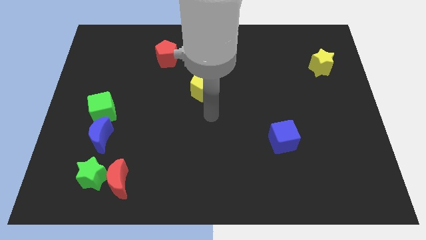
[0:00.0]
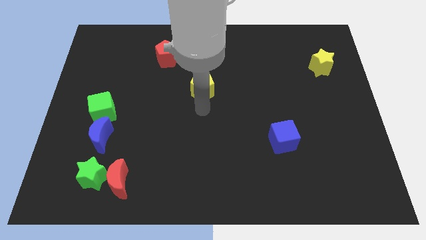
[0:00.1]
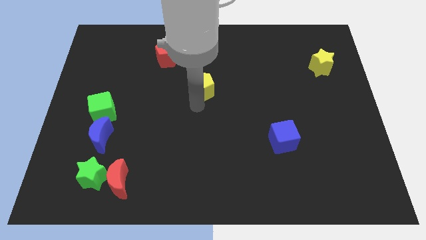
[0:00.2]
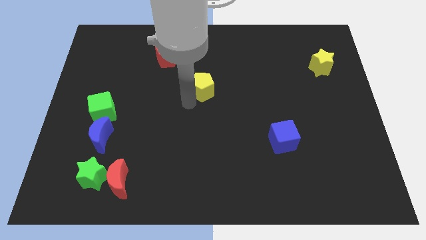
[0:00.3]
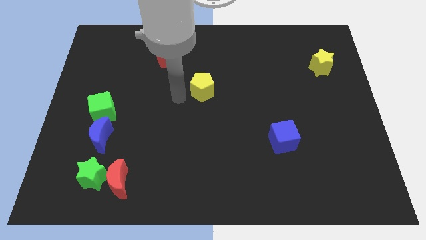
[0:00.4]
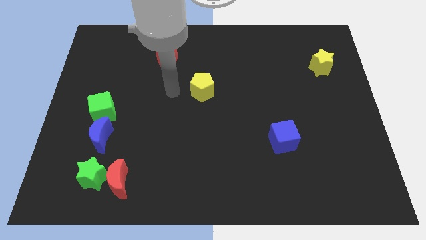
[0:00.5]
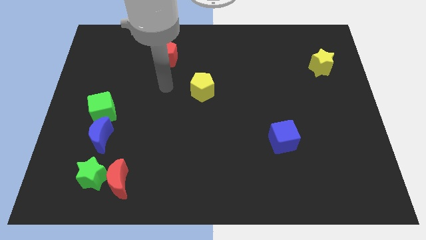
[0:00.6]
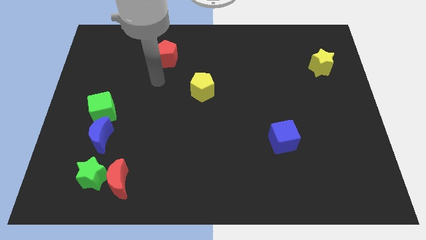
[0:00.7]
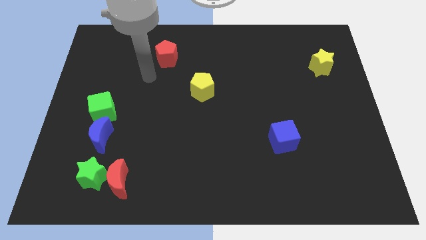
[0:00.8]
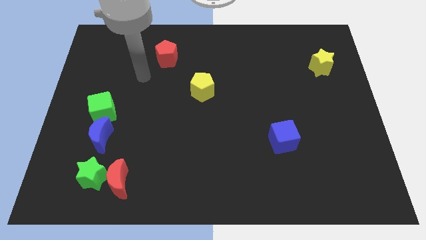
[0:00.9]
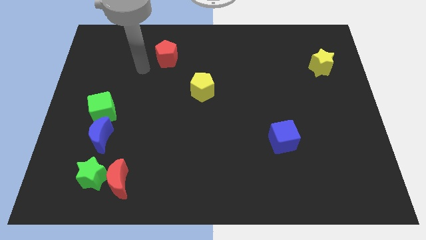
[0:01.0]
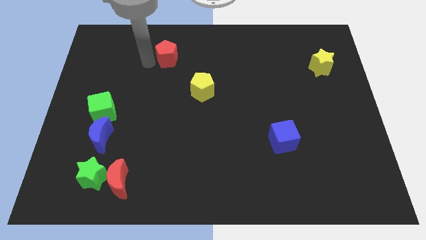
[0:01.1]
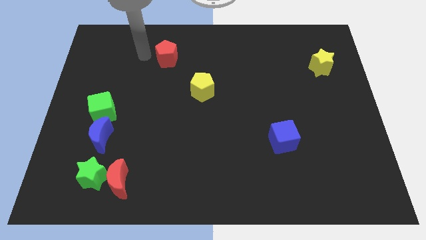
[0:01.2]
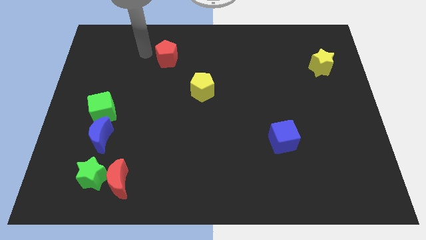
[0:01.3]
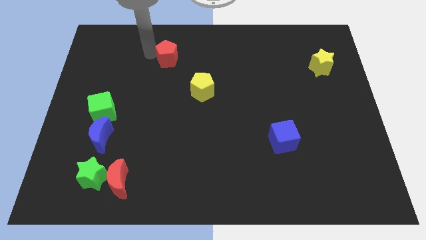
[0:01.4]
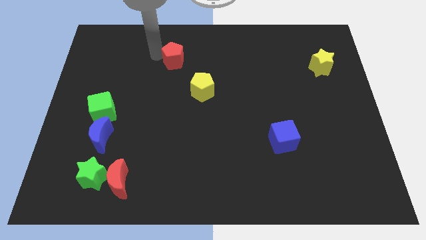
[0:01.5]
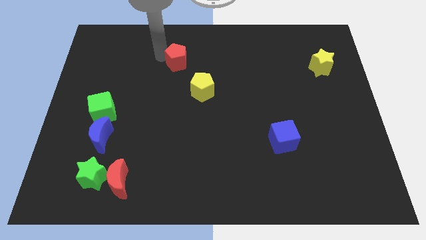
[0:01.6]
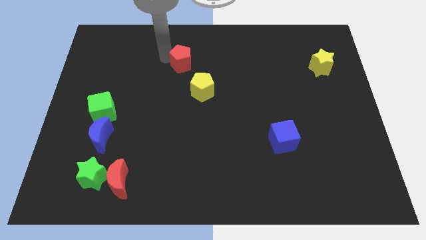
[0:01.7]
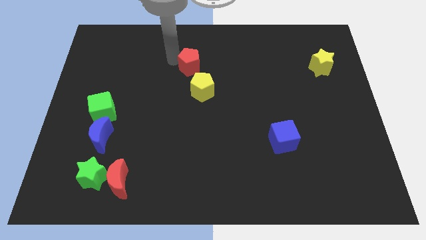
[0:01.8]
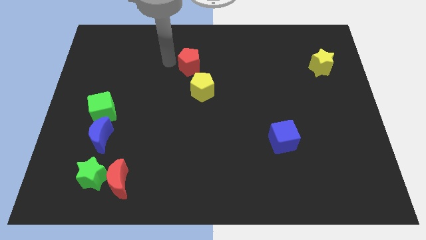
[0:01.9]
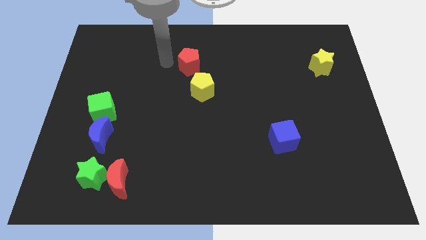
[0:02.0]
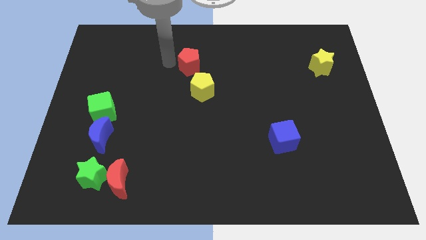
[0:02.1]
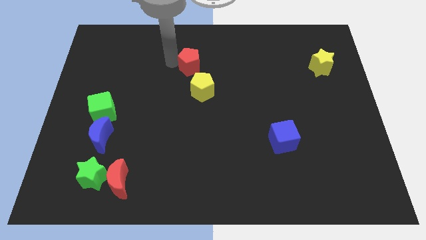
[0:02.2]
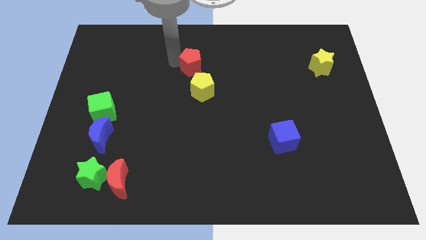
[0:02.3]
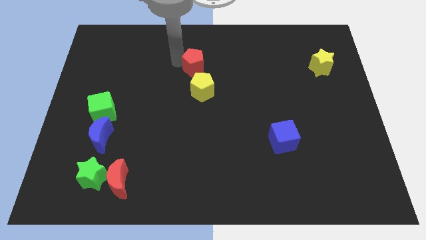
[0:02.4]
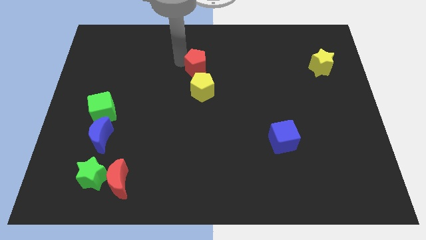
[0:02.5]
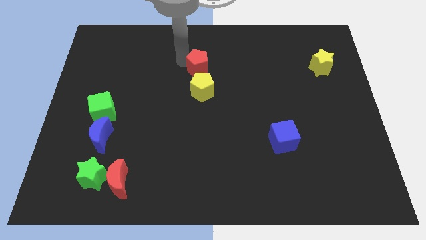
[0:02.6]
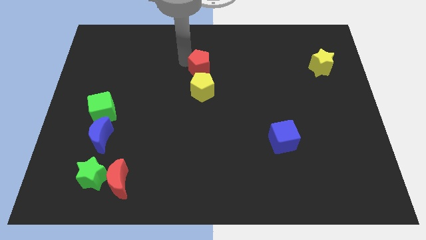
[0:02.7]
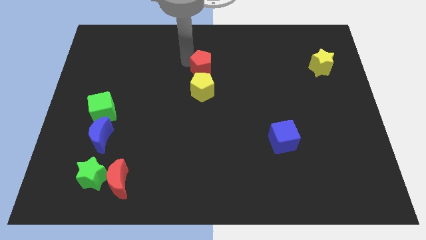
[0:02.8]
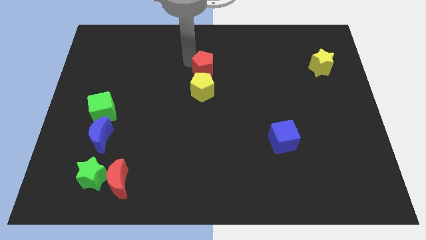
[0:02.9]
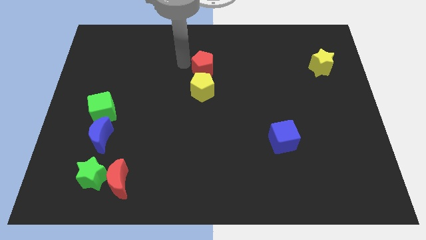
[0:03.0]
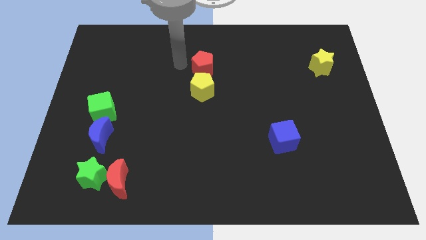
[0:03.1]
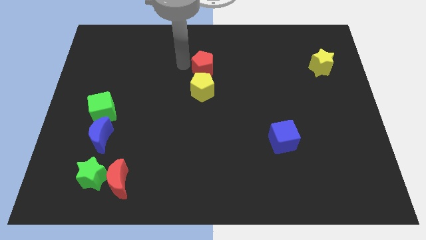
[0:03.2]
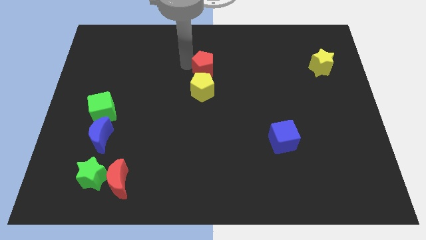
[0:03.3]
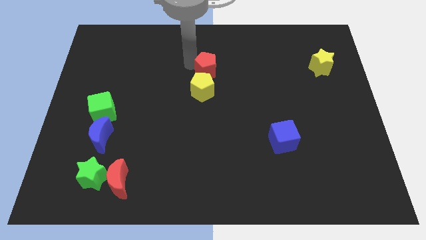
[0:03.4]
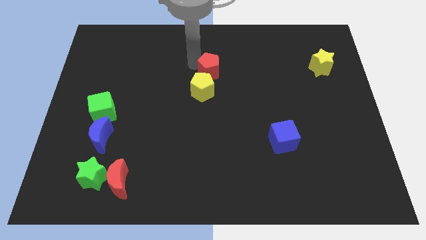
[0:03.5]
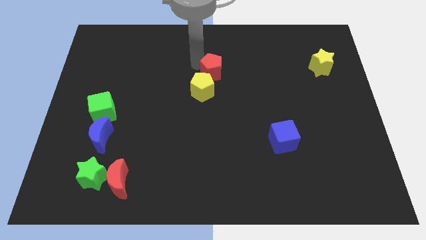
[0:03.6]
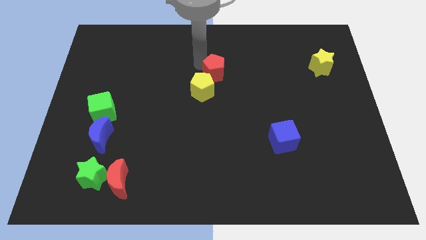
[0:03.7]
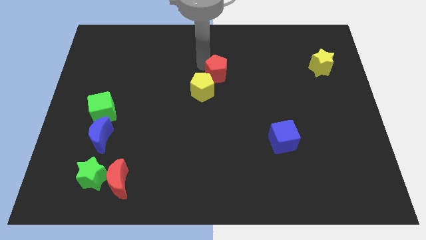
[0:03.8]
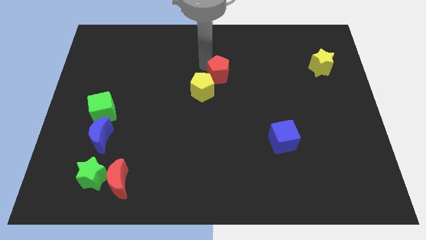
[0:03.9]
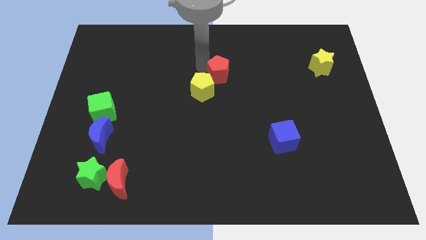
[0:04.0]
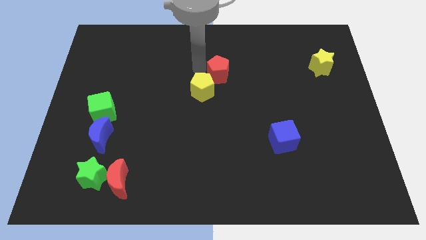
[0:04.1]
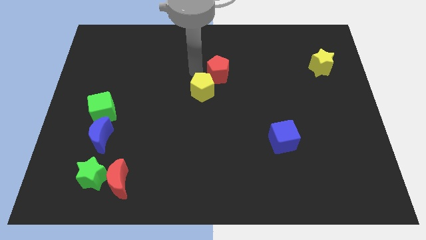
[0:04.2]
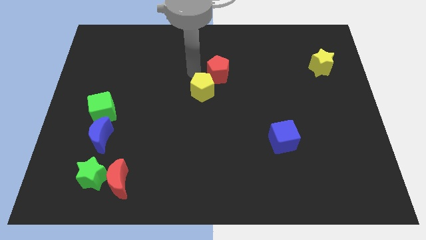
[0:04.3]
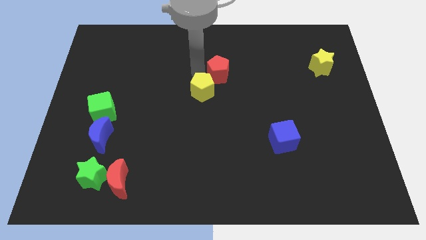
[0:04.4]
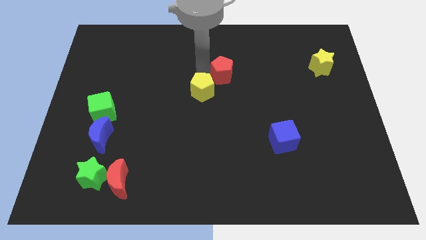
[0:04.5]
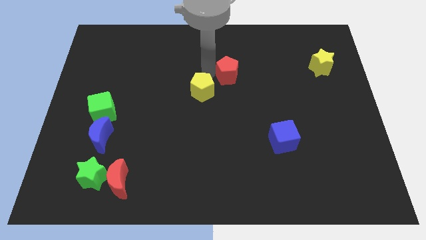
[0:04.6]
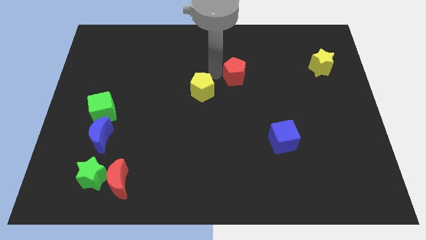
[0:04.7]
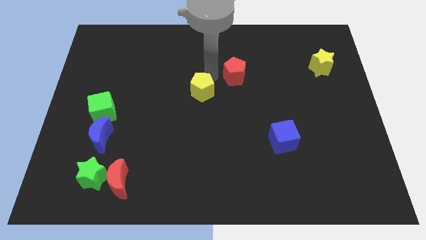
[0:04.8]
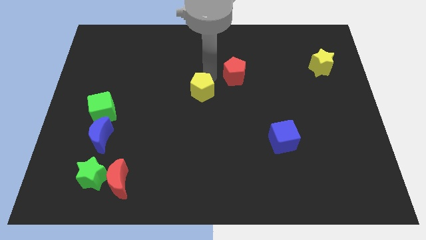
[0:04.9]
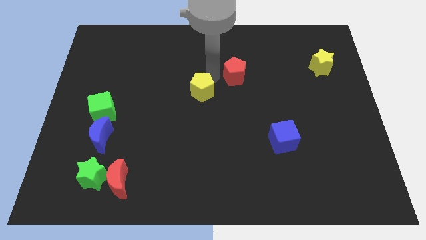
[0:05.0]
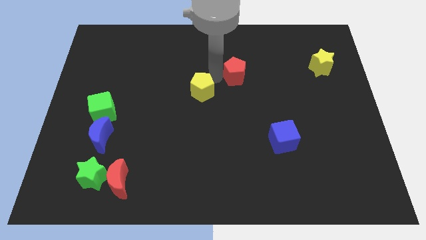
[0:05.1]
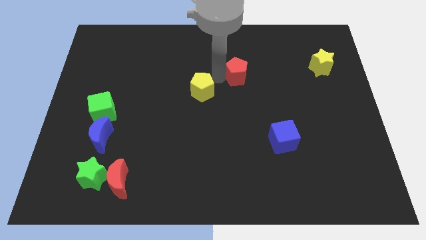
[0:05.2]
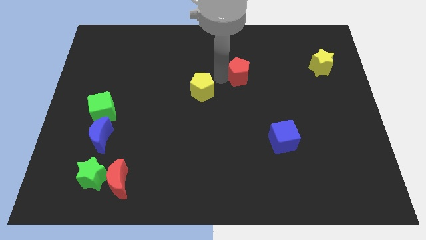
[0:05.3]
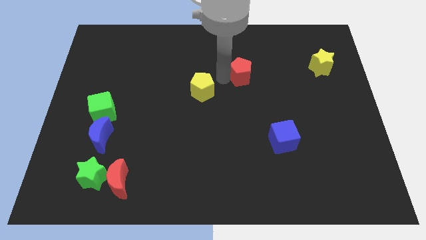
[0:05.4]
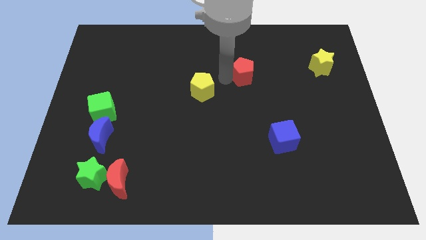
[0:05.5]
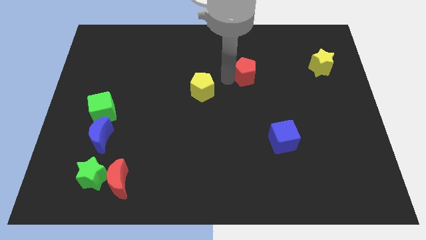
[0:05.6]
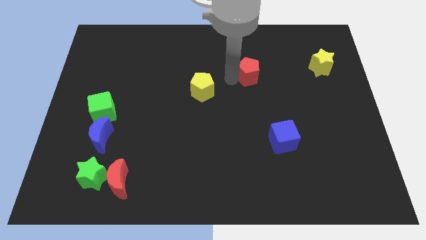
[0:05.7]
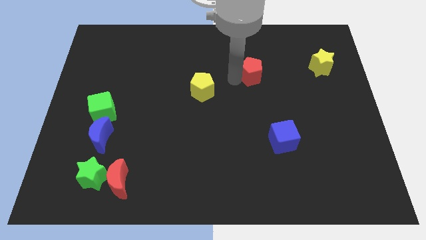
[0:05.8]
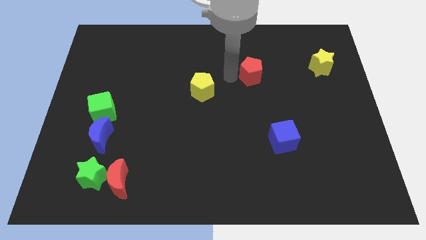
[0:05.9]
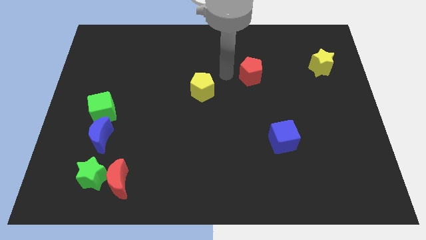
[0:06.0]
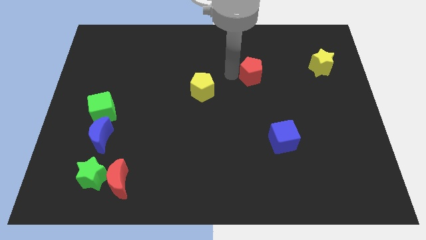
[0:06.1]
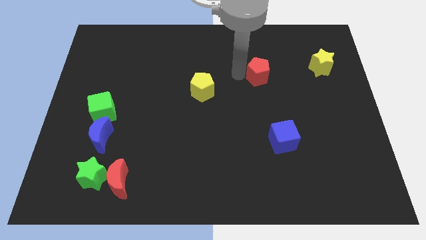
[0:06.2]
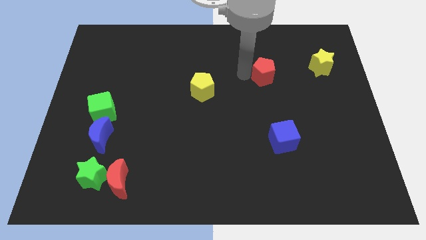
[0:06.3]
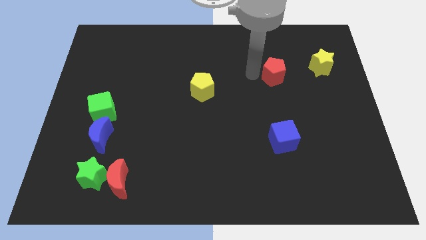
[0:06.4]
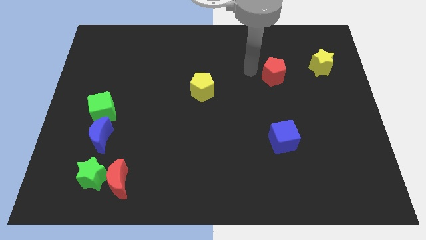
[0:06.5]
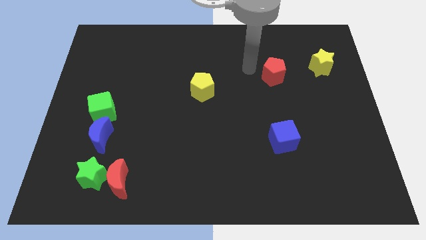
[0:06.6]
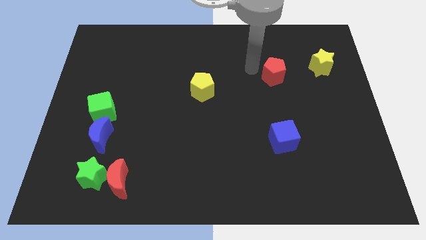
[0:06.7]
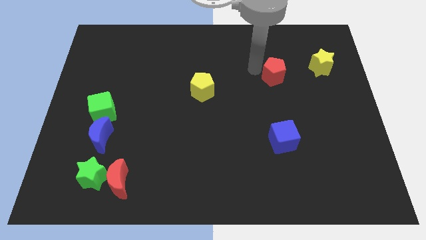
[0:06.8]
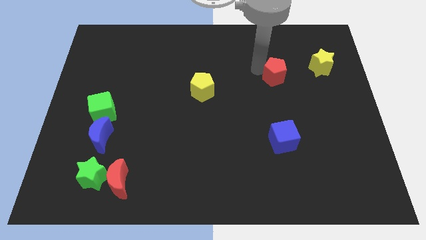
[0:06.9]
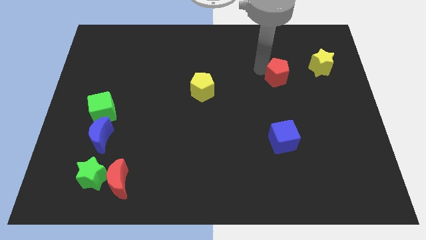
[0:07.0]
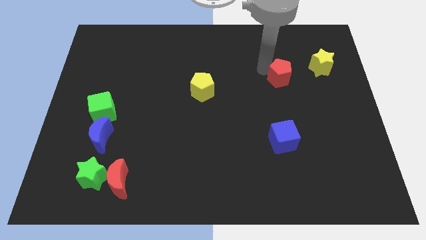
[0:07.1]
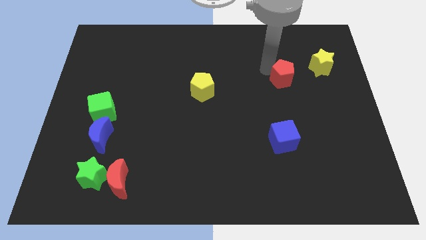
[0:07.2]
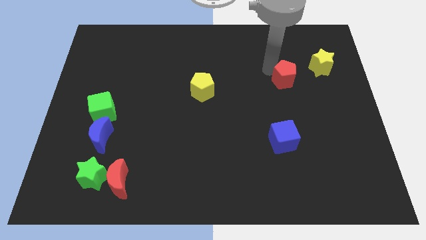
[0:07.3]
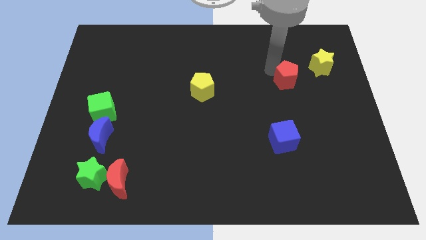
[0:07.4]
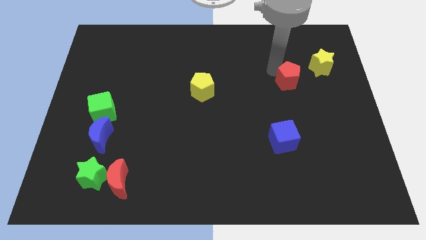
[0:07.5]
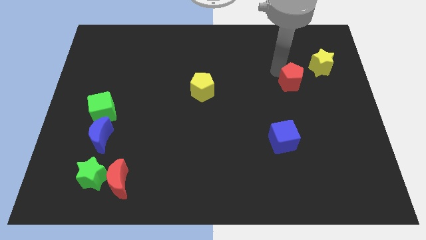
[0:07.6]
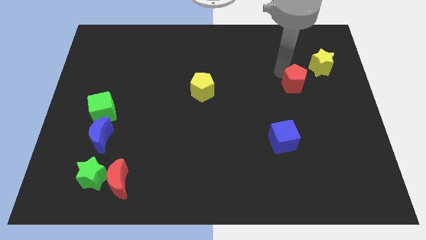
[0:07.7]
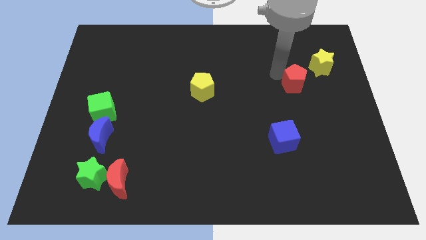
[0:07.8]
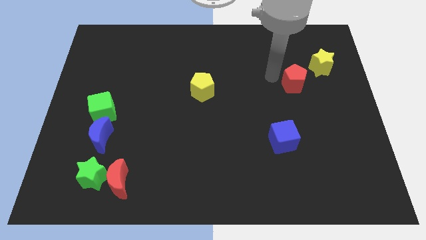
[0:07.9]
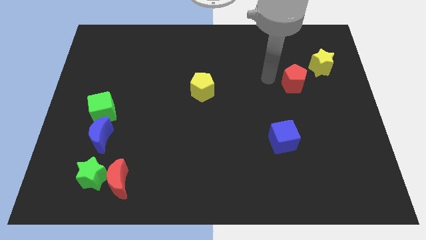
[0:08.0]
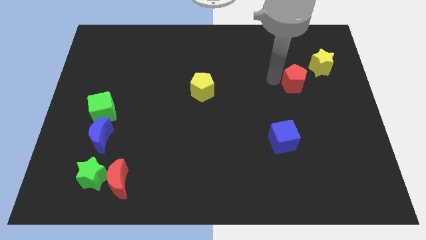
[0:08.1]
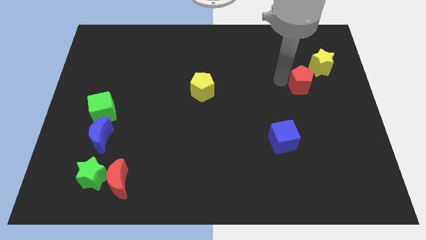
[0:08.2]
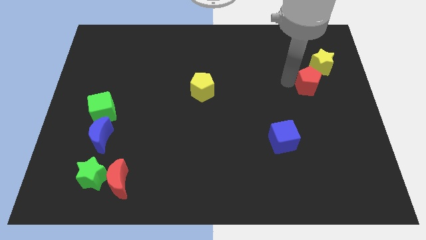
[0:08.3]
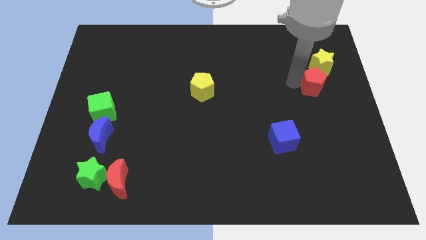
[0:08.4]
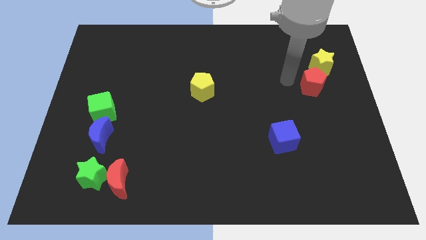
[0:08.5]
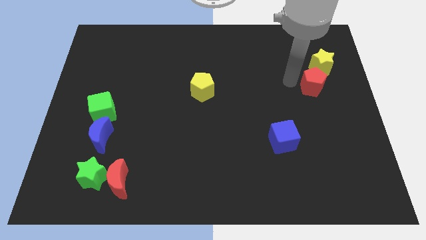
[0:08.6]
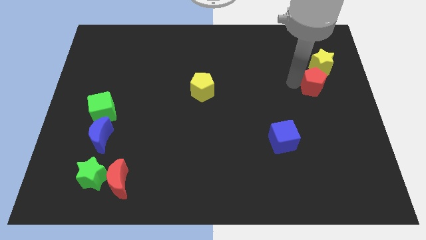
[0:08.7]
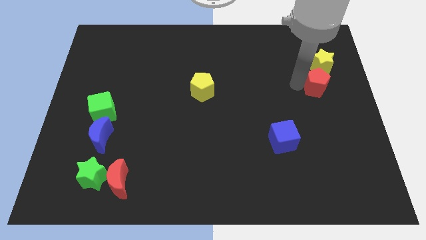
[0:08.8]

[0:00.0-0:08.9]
slide the red pentagon to the right side of the board
